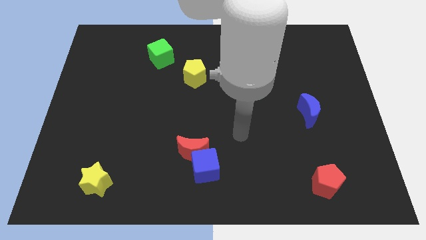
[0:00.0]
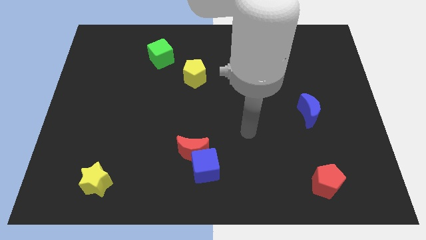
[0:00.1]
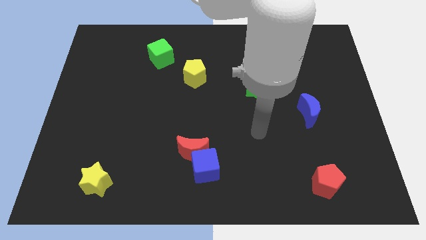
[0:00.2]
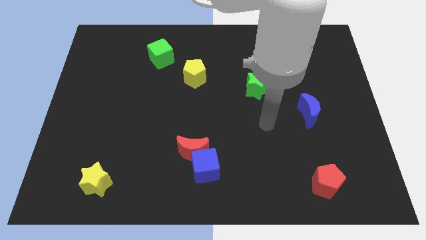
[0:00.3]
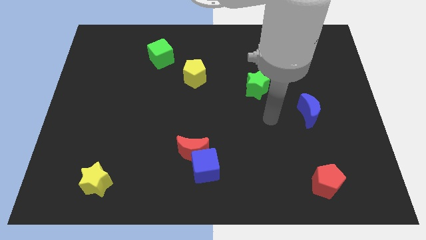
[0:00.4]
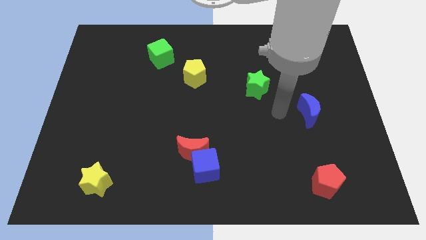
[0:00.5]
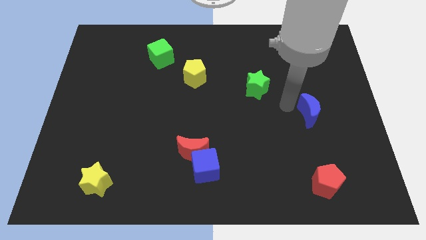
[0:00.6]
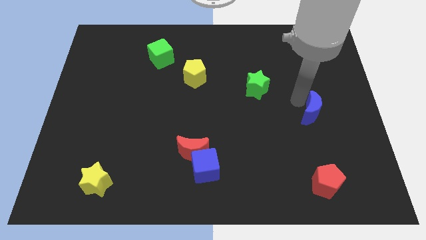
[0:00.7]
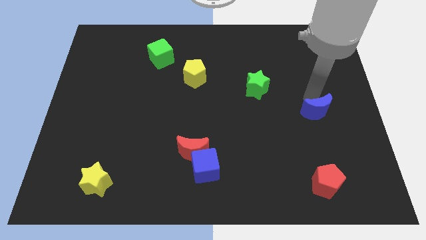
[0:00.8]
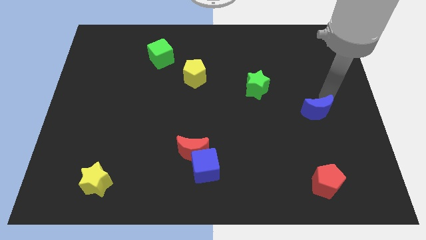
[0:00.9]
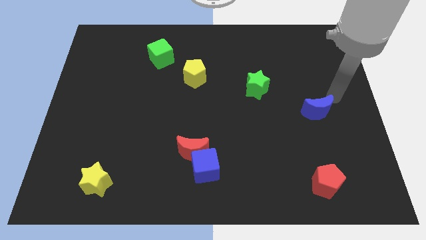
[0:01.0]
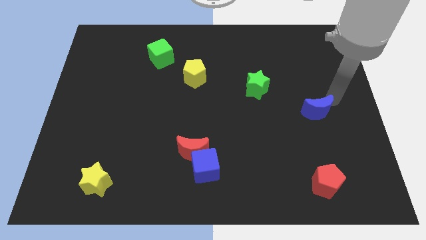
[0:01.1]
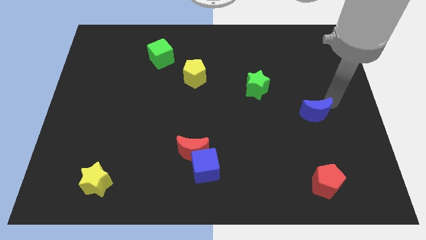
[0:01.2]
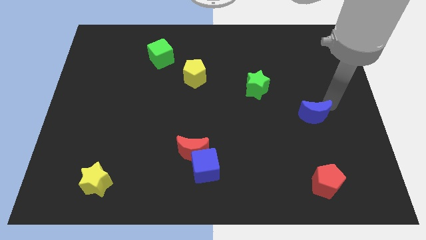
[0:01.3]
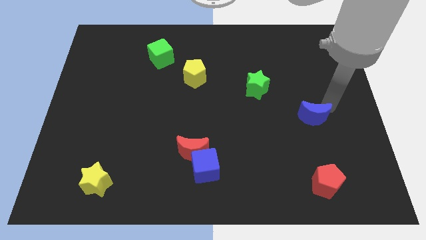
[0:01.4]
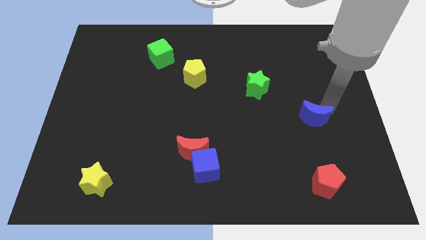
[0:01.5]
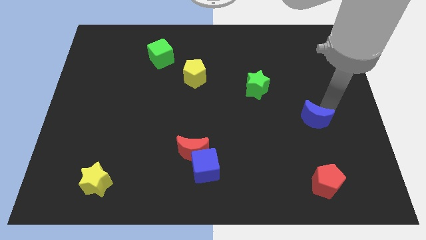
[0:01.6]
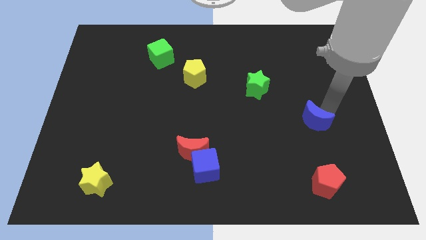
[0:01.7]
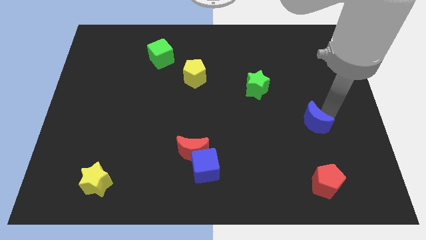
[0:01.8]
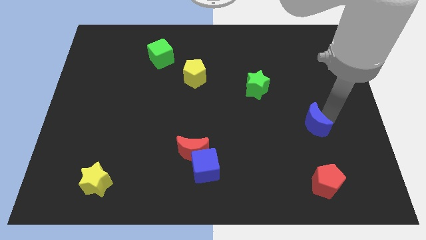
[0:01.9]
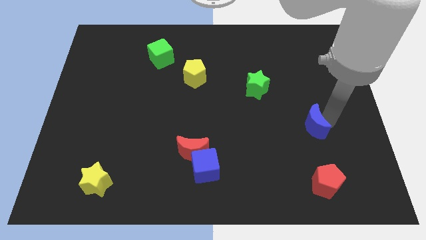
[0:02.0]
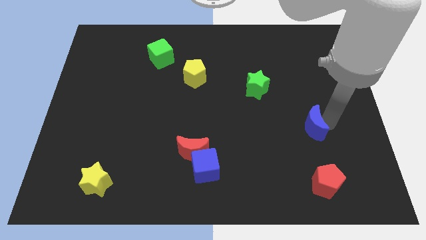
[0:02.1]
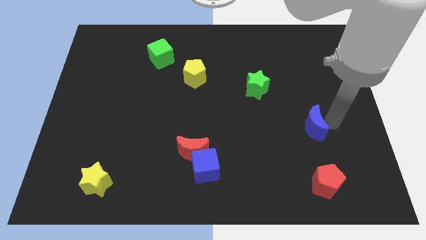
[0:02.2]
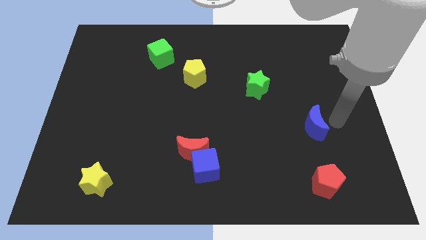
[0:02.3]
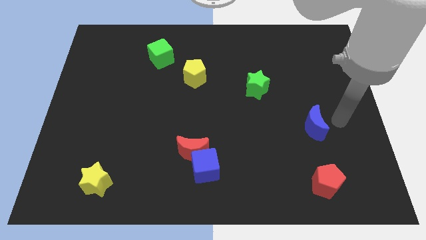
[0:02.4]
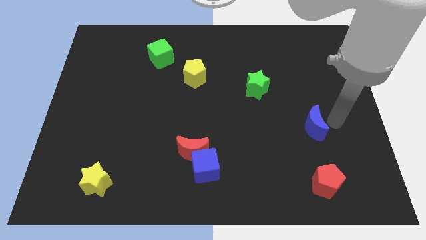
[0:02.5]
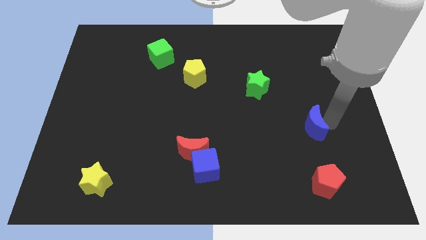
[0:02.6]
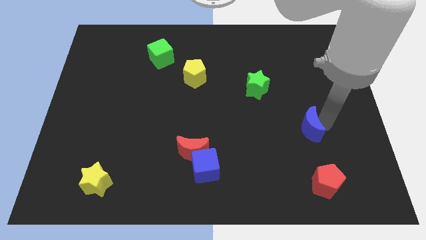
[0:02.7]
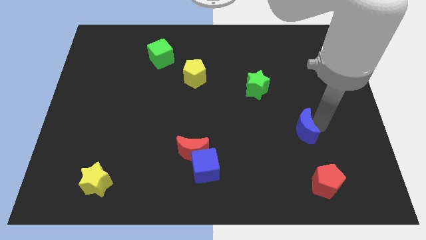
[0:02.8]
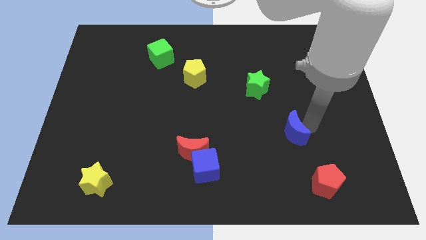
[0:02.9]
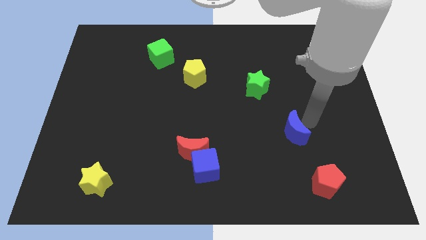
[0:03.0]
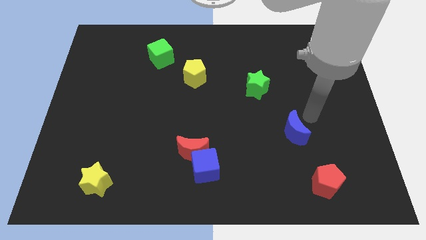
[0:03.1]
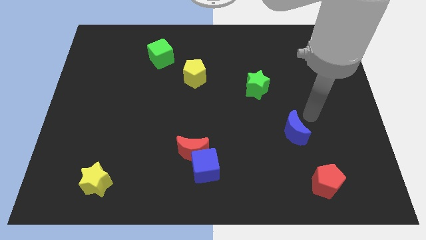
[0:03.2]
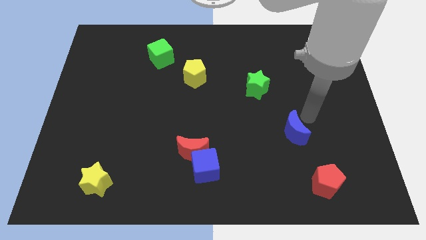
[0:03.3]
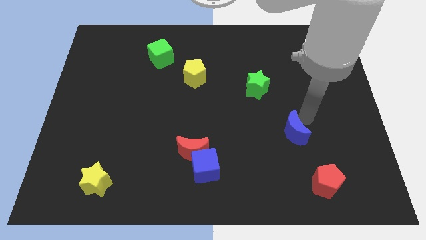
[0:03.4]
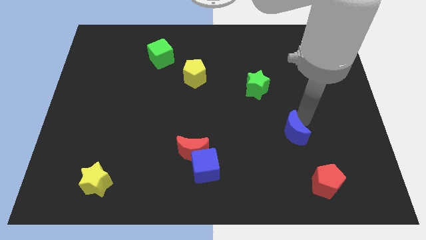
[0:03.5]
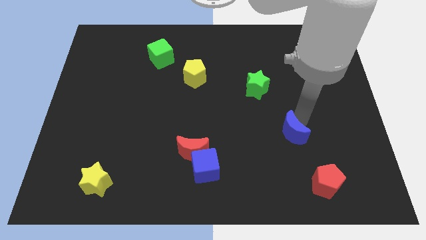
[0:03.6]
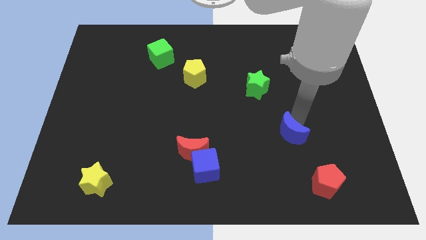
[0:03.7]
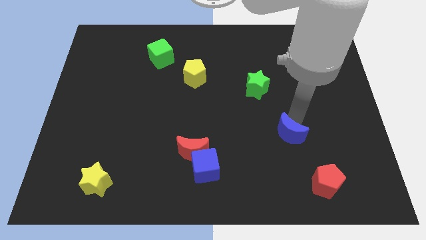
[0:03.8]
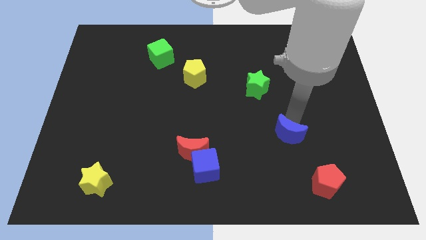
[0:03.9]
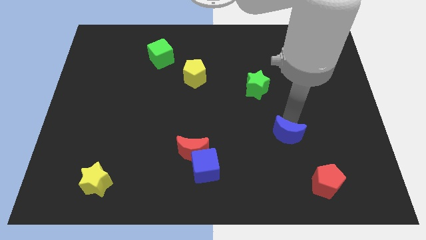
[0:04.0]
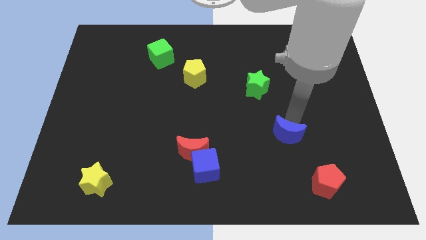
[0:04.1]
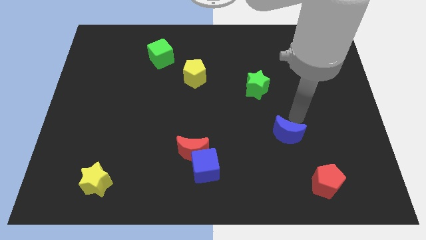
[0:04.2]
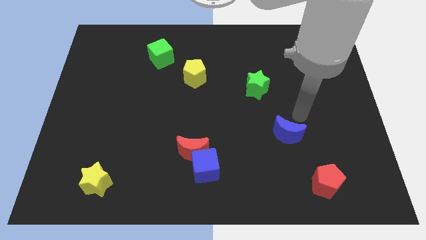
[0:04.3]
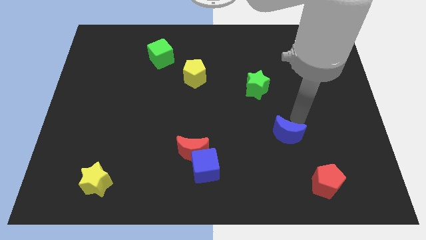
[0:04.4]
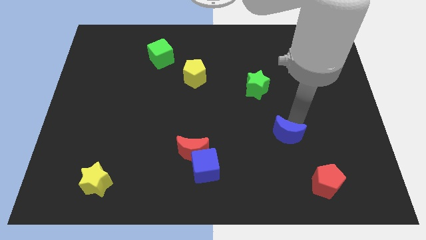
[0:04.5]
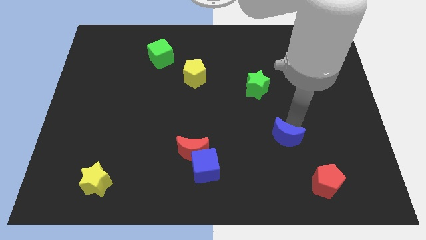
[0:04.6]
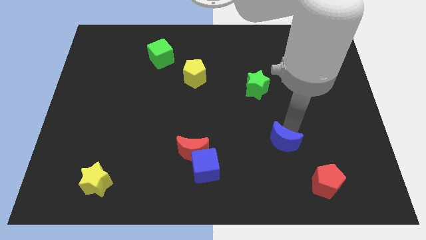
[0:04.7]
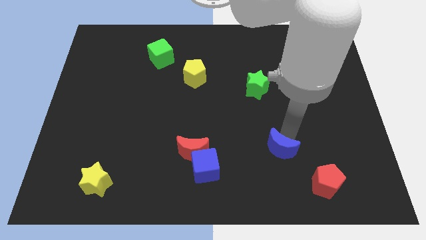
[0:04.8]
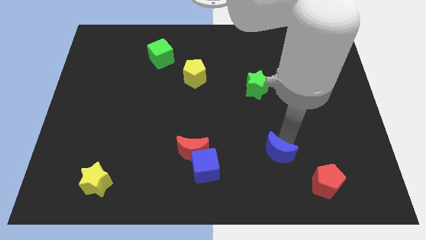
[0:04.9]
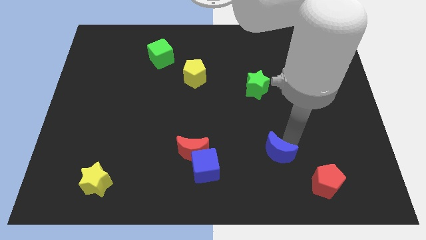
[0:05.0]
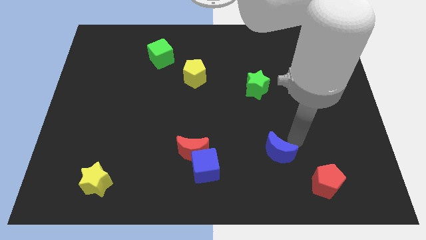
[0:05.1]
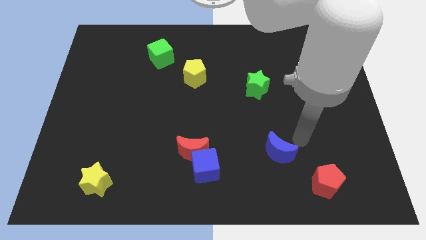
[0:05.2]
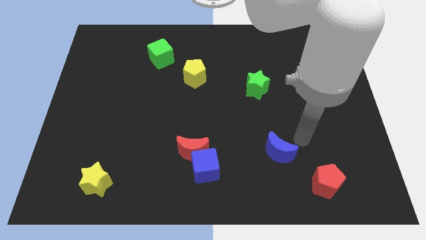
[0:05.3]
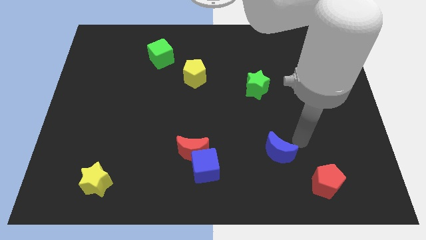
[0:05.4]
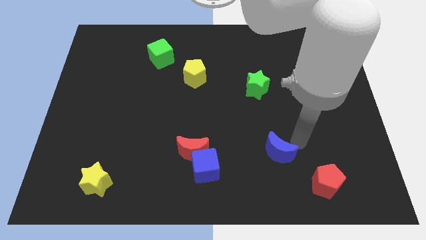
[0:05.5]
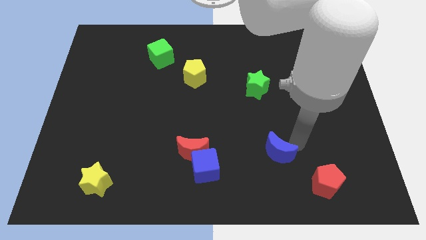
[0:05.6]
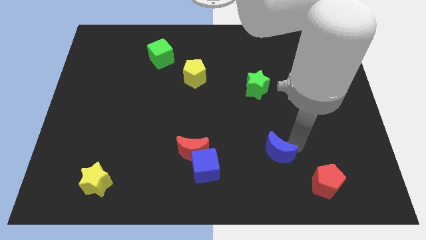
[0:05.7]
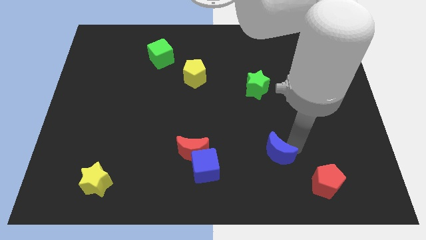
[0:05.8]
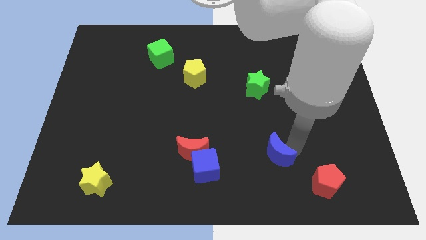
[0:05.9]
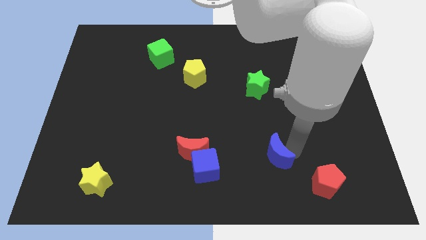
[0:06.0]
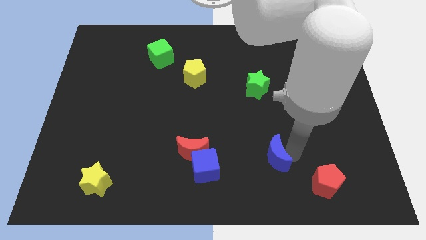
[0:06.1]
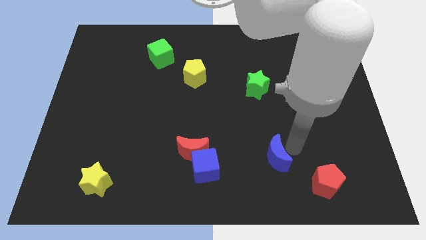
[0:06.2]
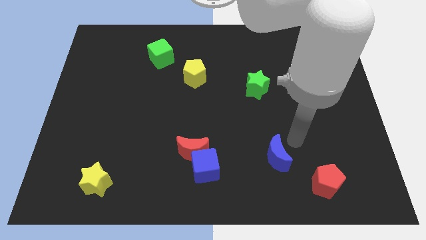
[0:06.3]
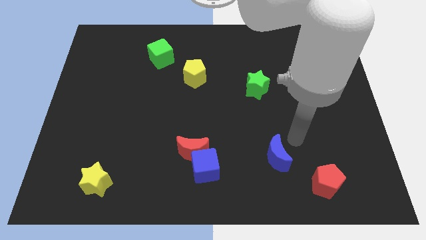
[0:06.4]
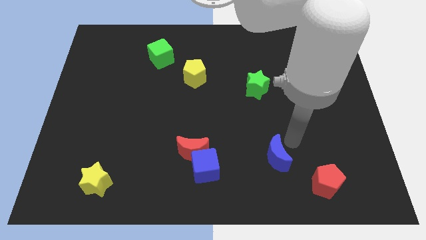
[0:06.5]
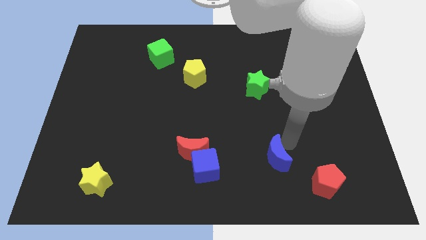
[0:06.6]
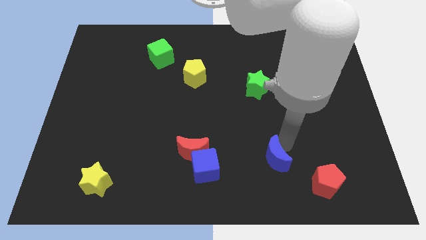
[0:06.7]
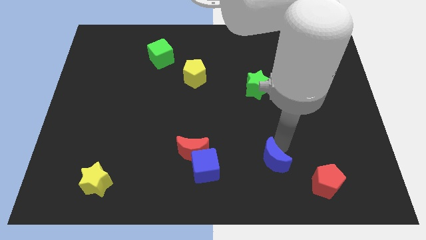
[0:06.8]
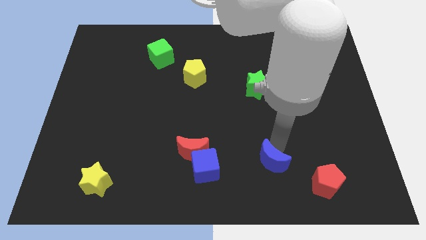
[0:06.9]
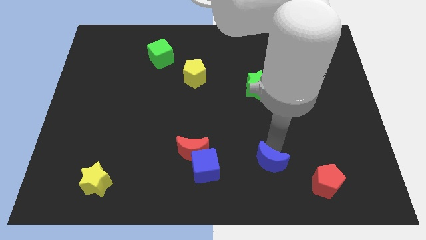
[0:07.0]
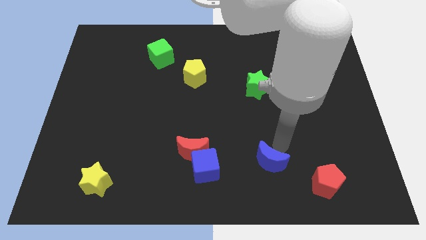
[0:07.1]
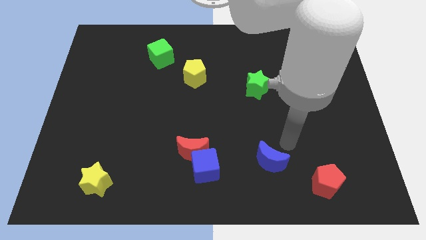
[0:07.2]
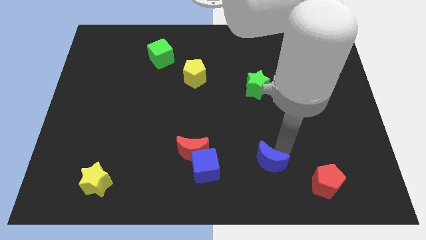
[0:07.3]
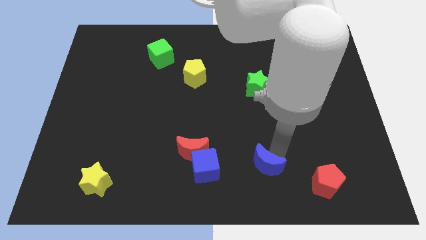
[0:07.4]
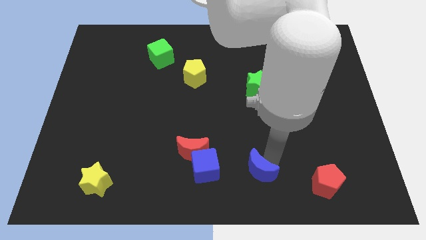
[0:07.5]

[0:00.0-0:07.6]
push the blue moon to the bottom side
